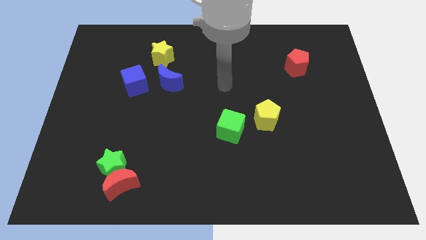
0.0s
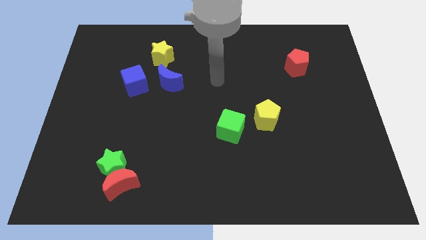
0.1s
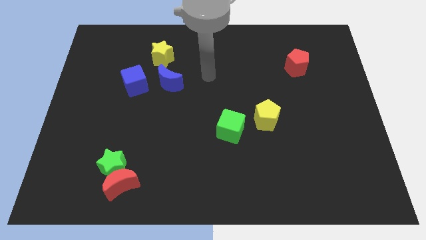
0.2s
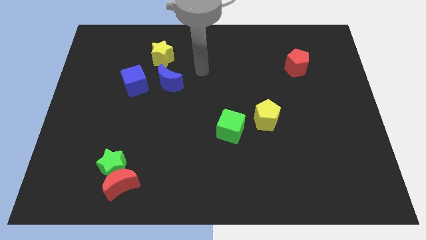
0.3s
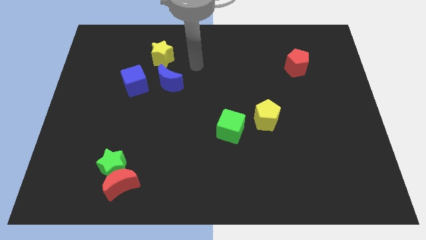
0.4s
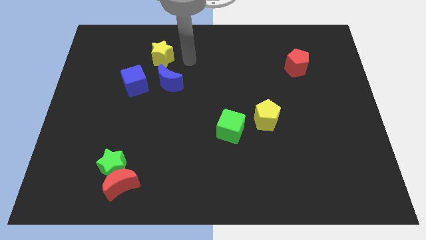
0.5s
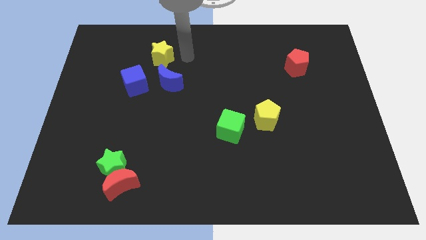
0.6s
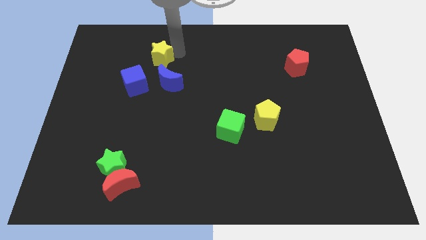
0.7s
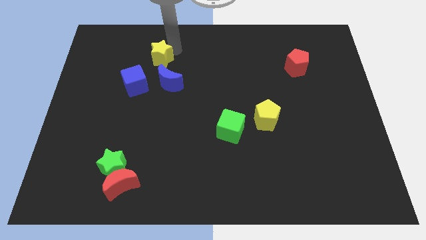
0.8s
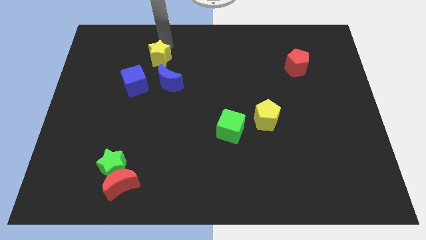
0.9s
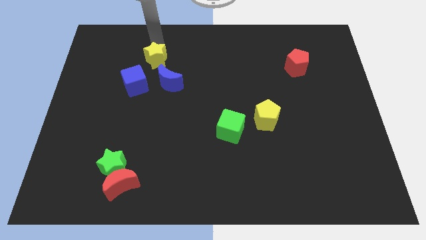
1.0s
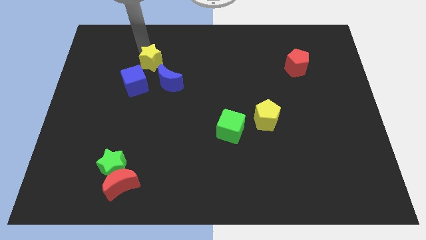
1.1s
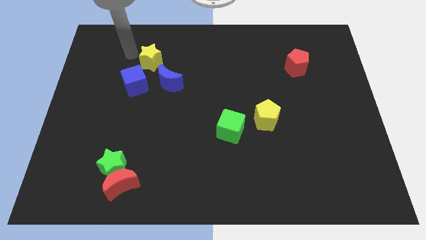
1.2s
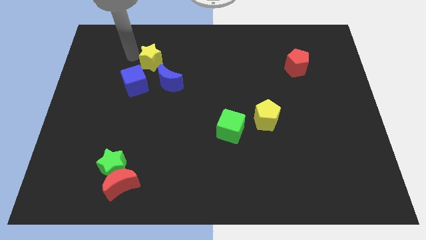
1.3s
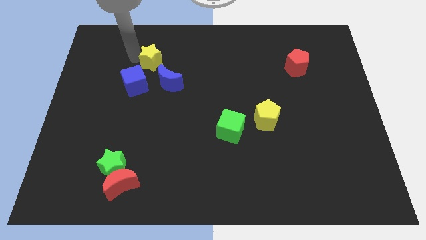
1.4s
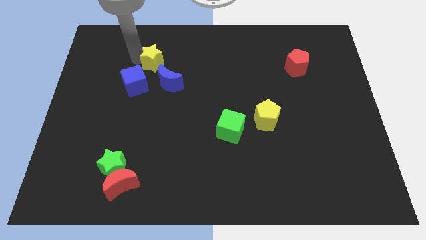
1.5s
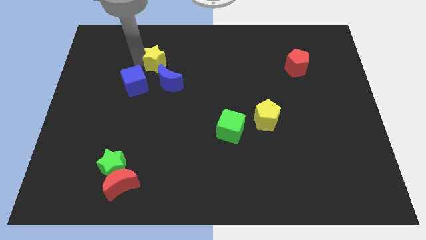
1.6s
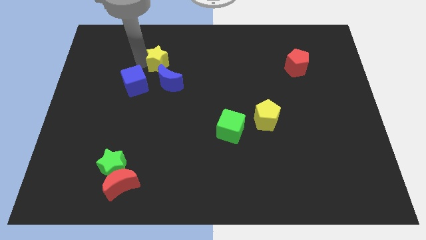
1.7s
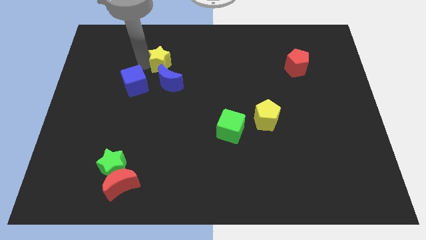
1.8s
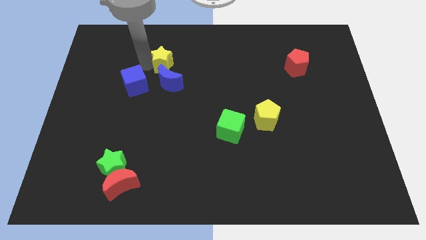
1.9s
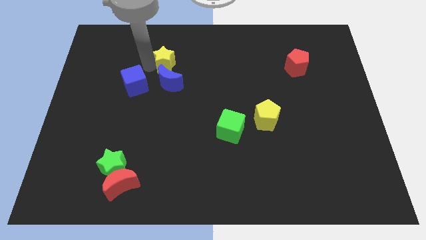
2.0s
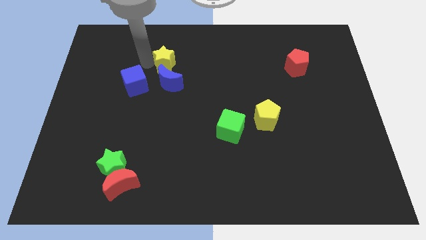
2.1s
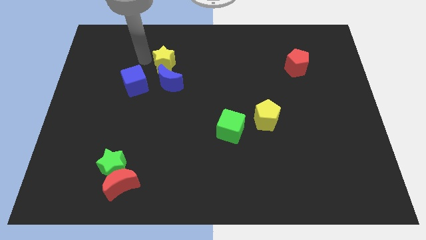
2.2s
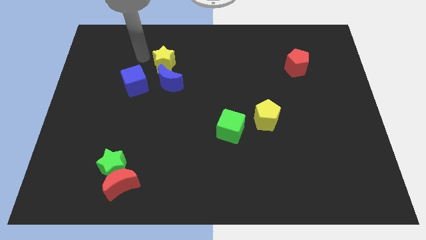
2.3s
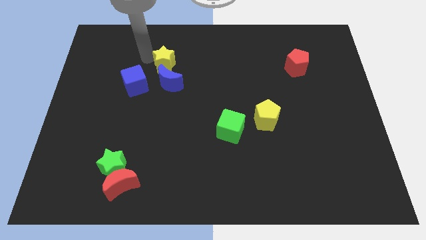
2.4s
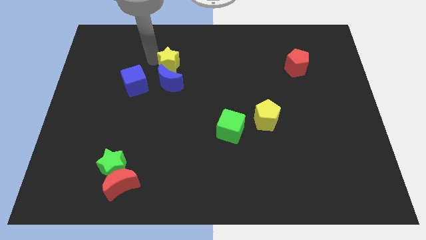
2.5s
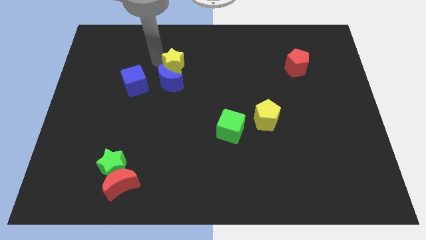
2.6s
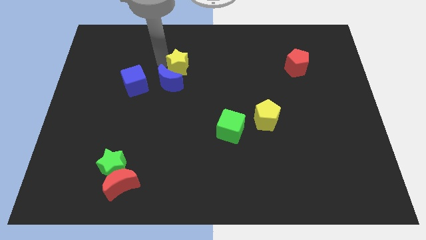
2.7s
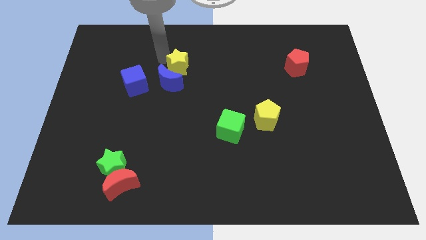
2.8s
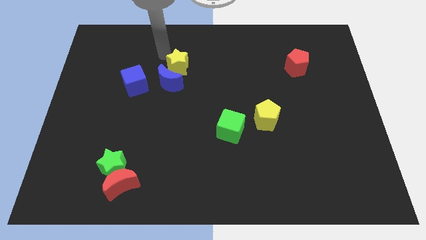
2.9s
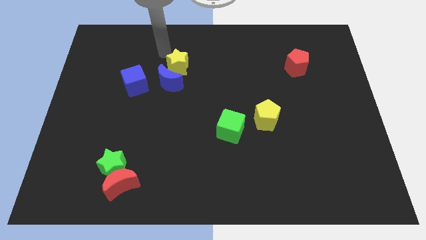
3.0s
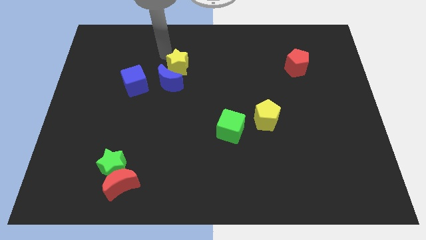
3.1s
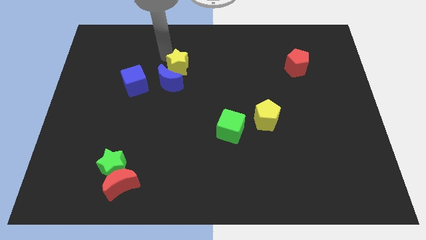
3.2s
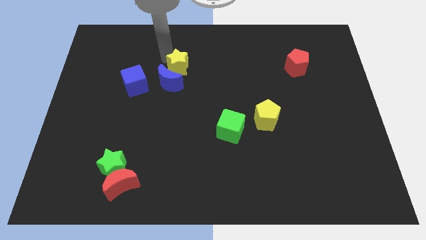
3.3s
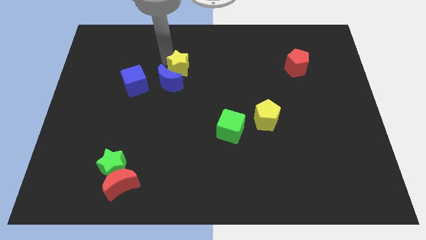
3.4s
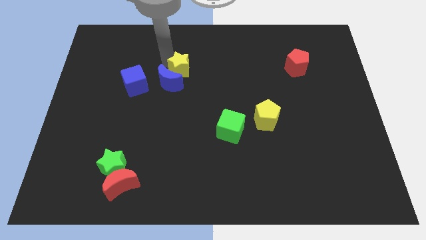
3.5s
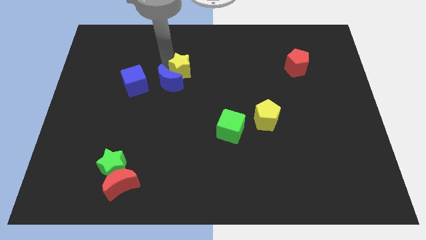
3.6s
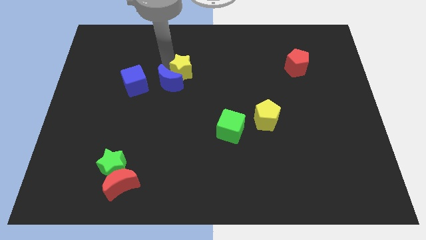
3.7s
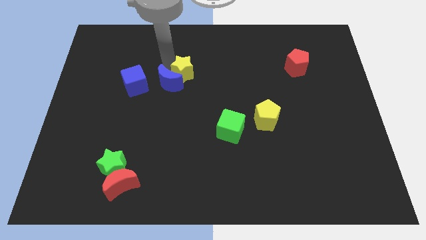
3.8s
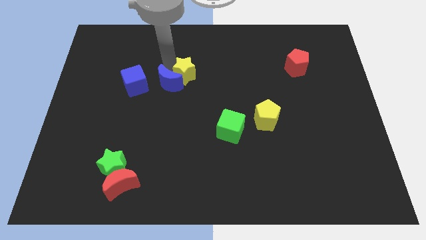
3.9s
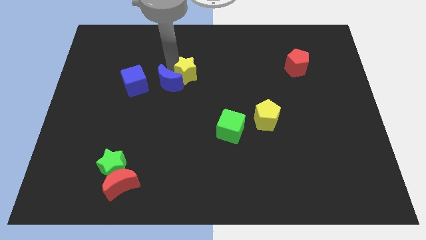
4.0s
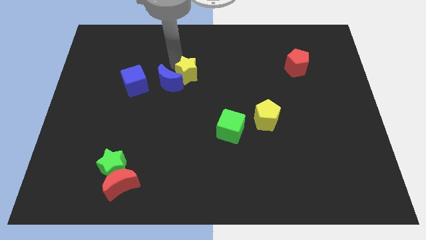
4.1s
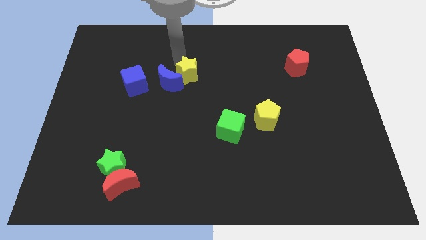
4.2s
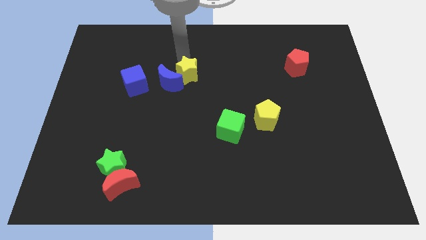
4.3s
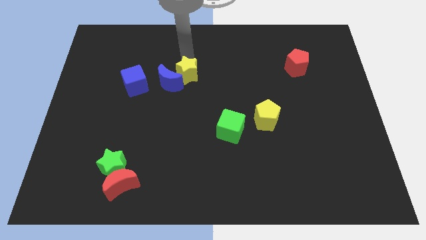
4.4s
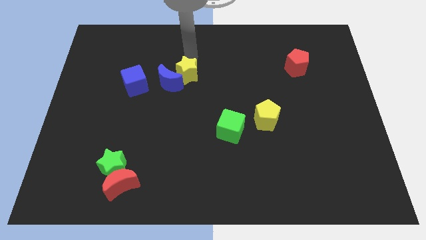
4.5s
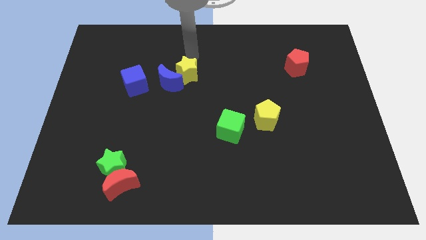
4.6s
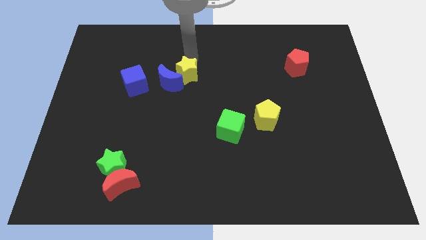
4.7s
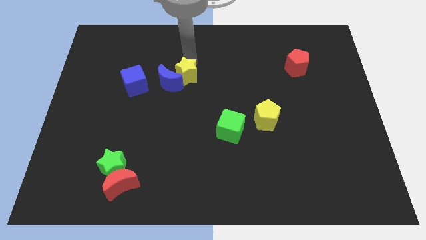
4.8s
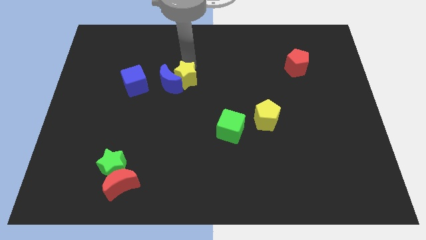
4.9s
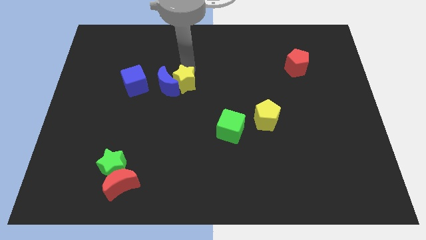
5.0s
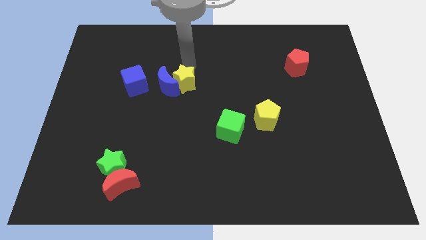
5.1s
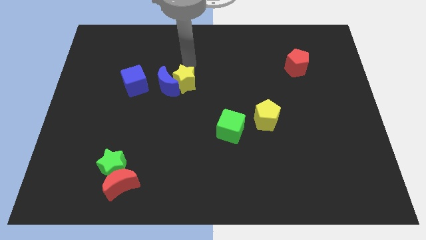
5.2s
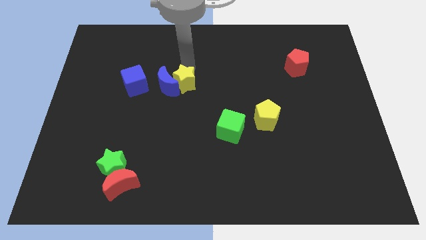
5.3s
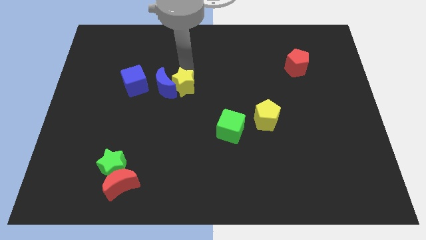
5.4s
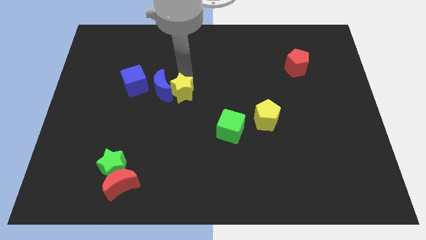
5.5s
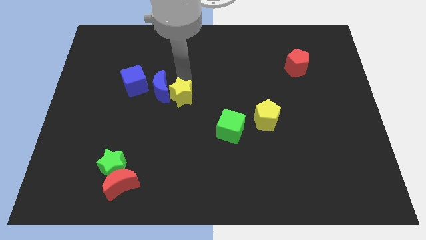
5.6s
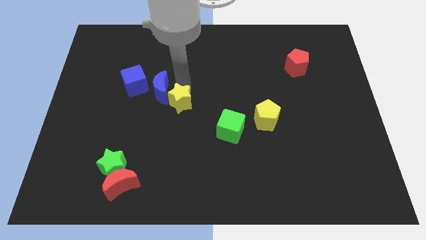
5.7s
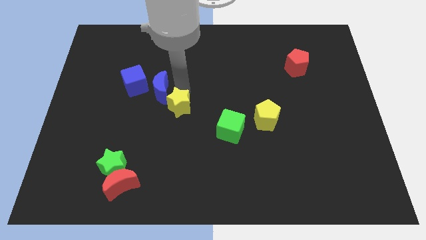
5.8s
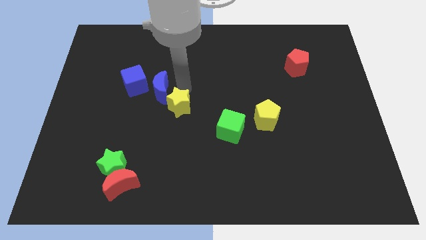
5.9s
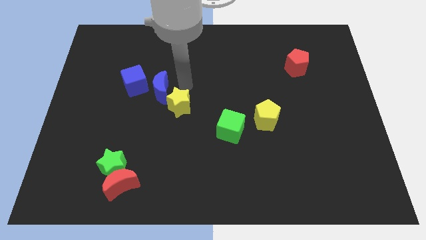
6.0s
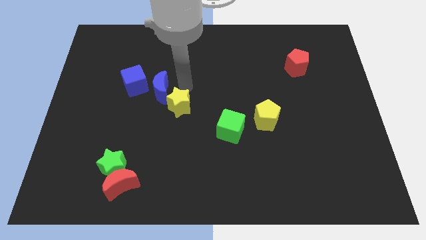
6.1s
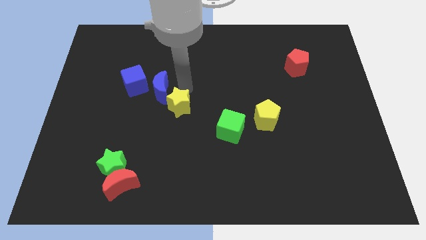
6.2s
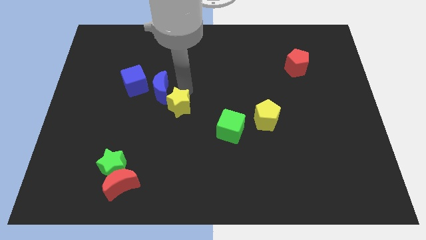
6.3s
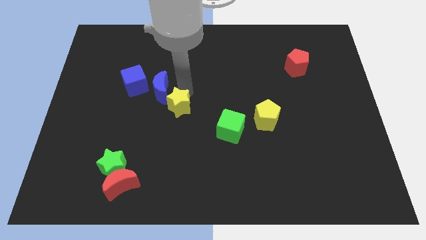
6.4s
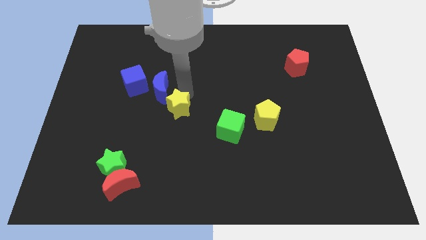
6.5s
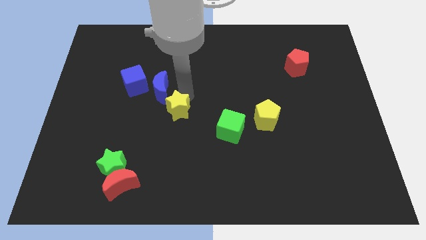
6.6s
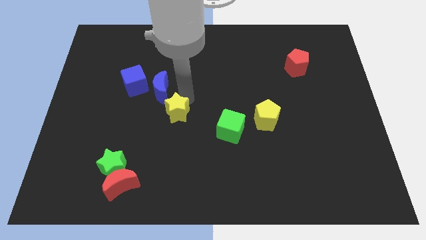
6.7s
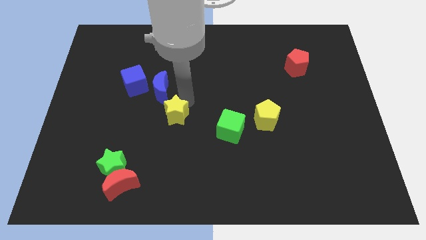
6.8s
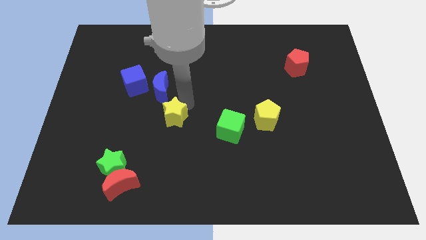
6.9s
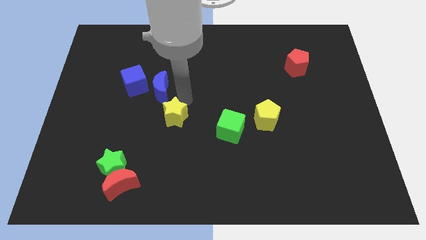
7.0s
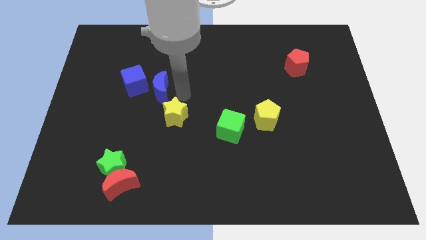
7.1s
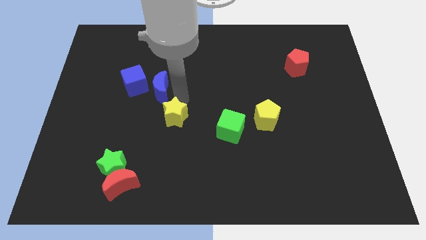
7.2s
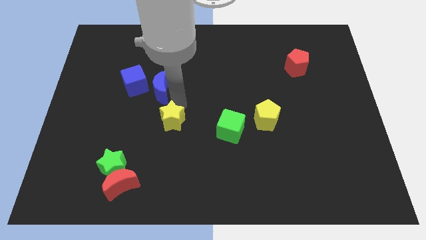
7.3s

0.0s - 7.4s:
push the yellow star down

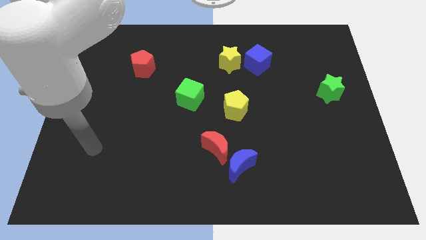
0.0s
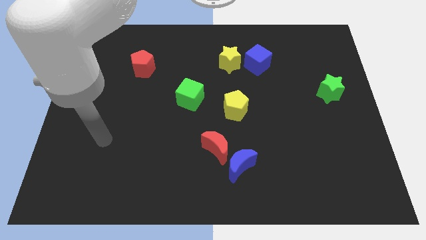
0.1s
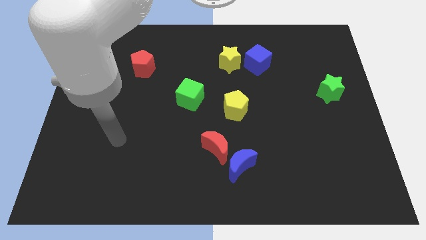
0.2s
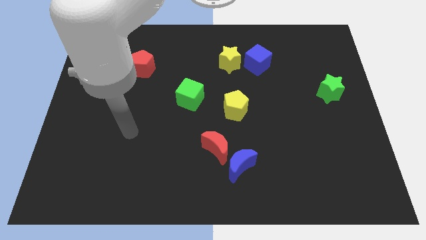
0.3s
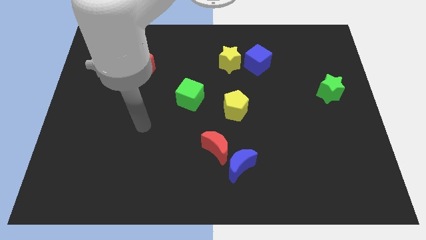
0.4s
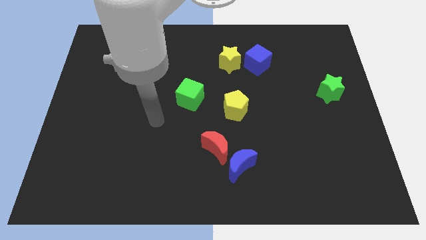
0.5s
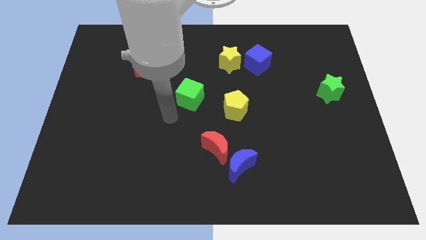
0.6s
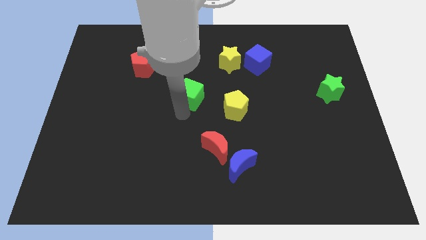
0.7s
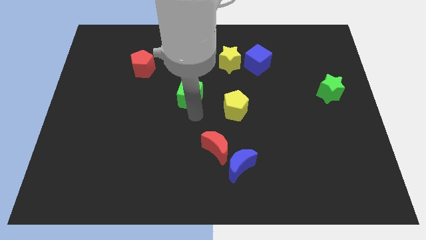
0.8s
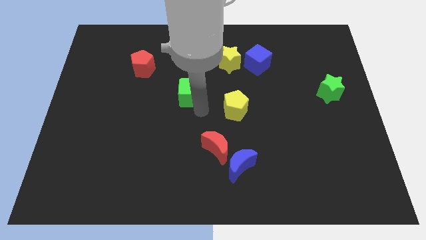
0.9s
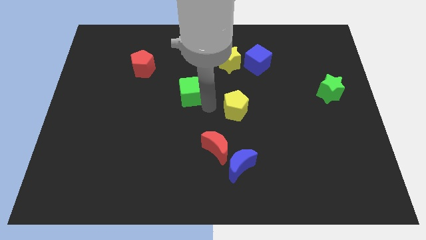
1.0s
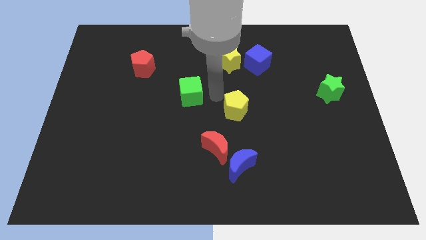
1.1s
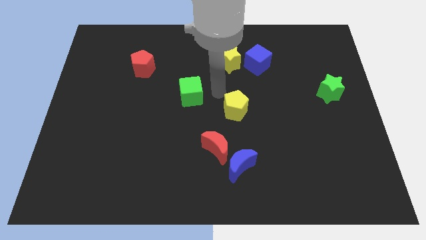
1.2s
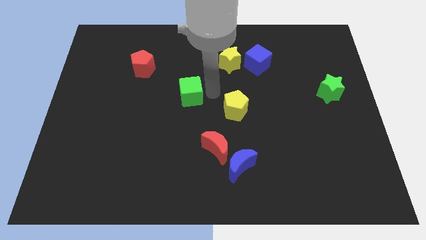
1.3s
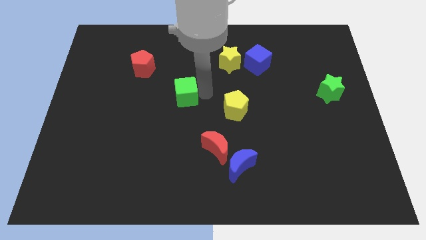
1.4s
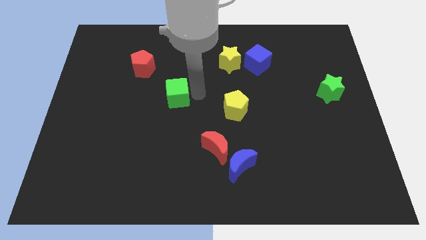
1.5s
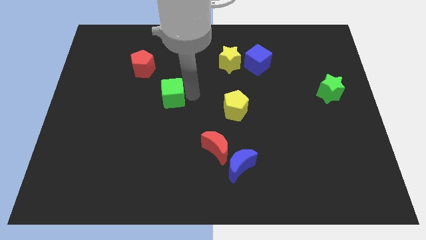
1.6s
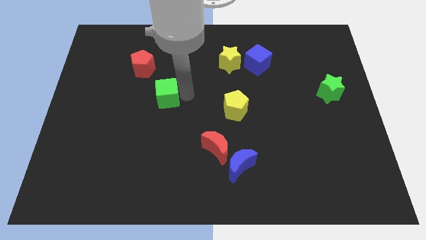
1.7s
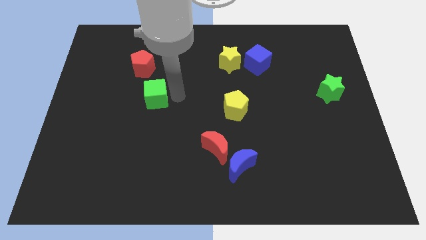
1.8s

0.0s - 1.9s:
push the green cube a little left
